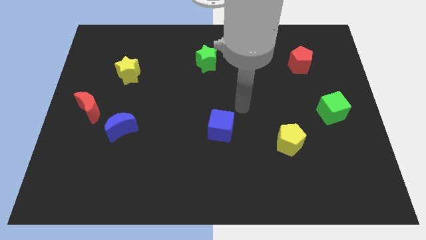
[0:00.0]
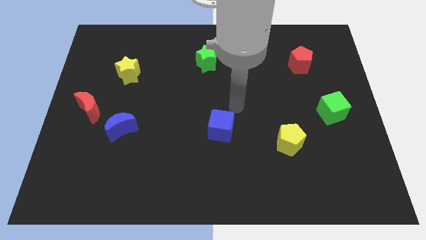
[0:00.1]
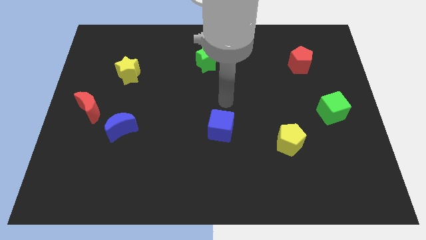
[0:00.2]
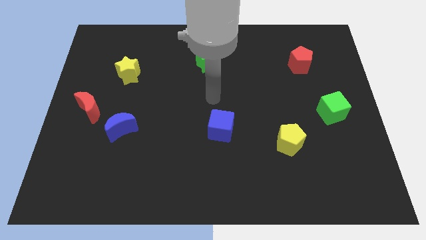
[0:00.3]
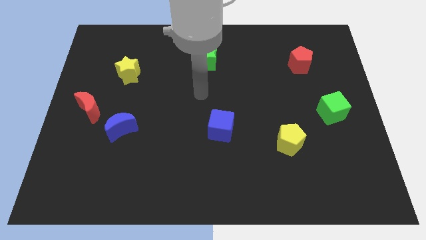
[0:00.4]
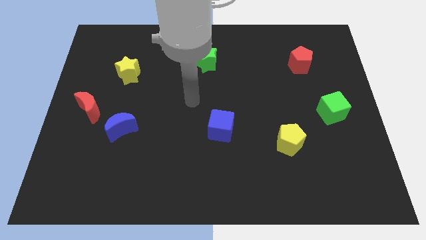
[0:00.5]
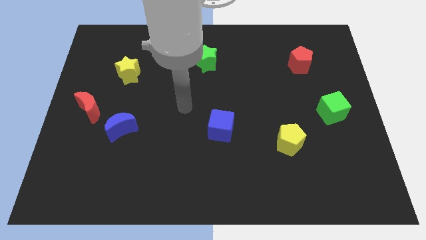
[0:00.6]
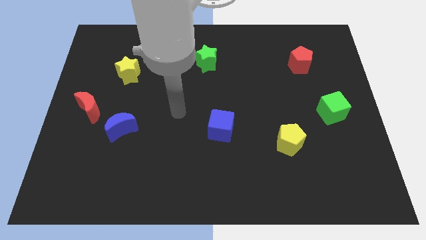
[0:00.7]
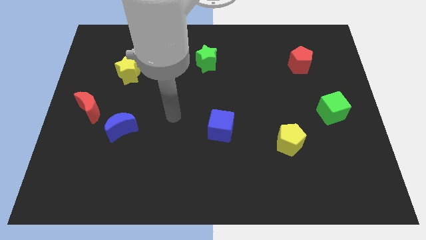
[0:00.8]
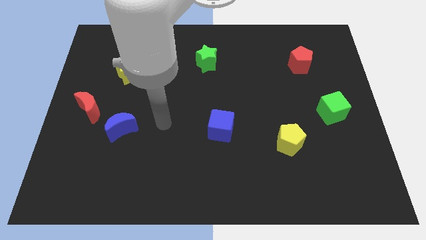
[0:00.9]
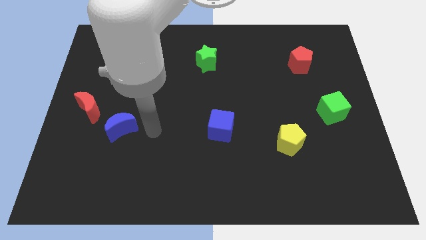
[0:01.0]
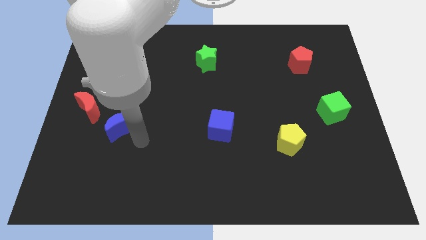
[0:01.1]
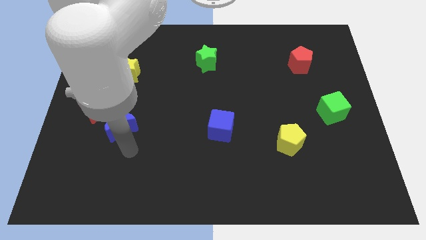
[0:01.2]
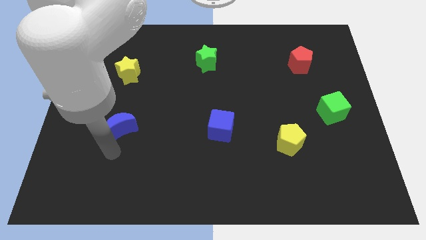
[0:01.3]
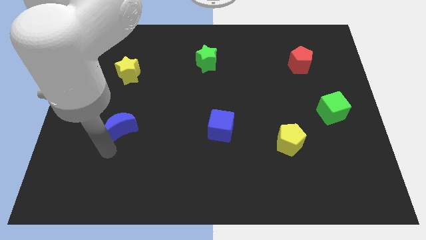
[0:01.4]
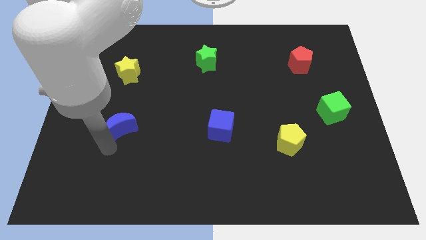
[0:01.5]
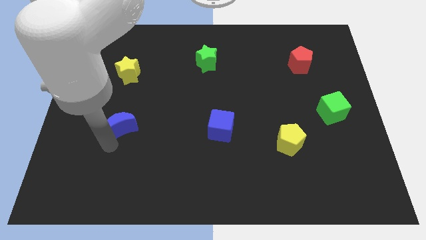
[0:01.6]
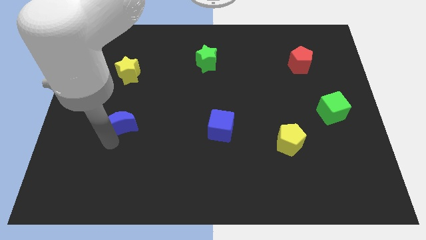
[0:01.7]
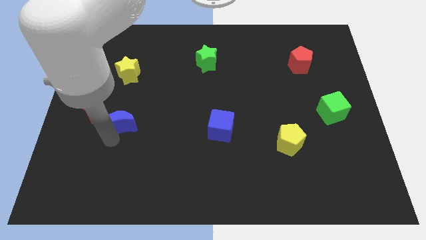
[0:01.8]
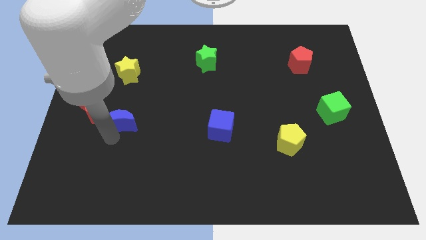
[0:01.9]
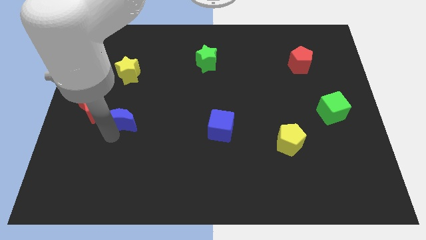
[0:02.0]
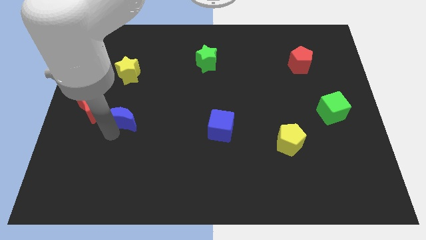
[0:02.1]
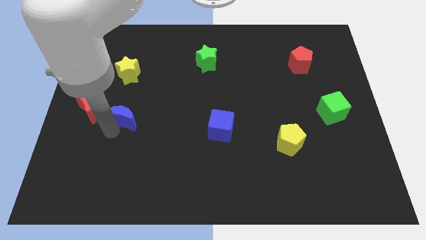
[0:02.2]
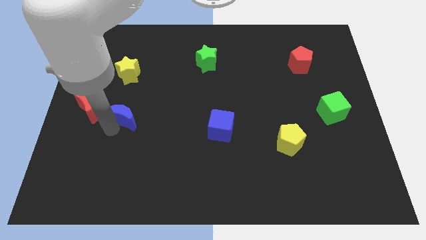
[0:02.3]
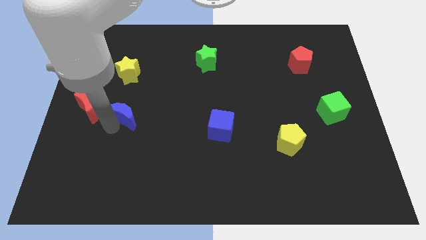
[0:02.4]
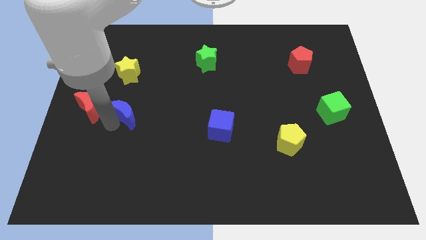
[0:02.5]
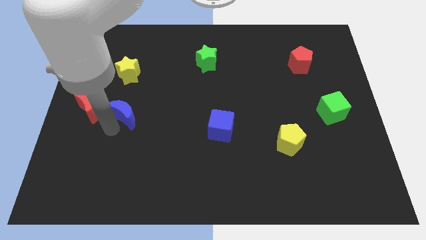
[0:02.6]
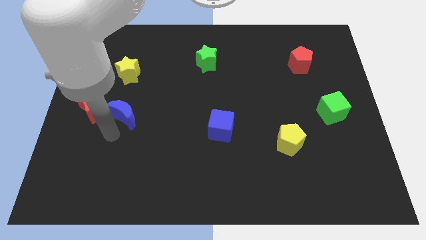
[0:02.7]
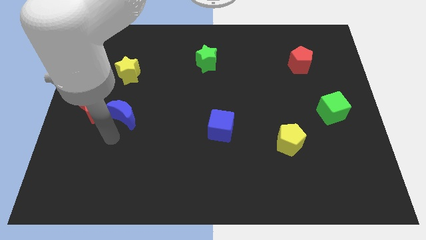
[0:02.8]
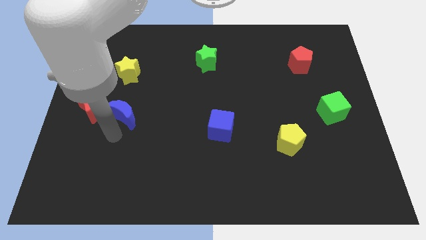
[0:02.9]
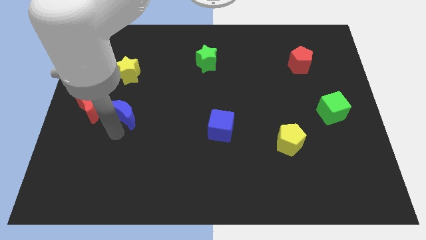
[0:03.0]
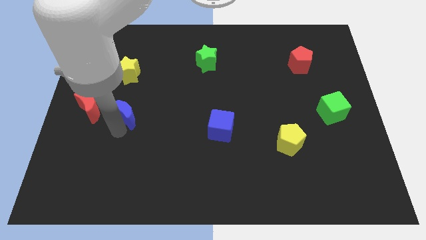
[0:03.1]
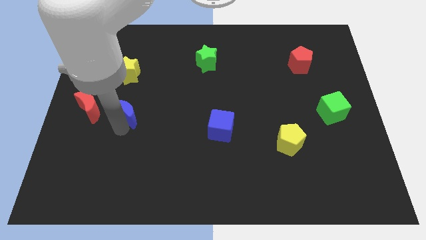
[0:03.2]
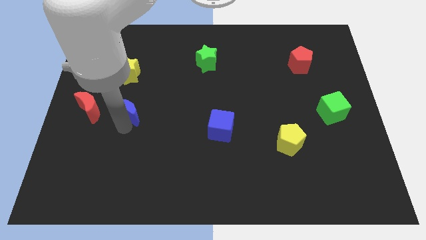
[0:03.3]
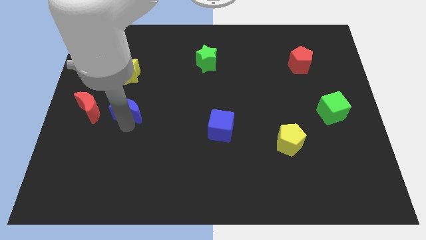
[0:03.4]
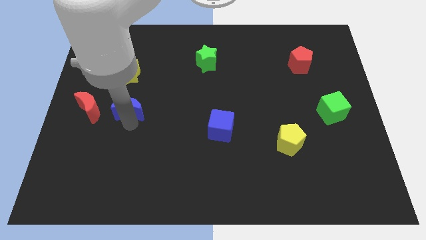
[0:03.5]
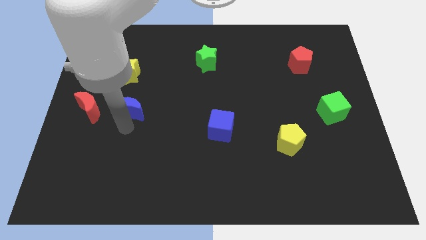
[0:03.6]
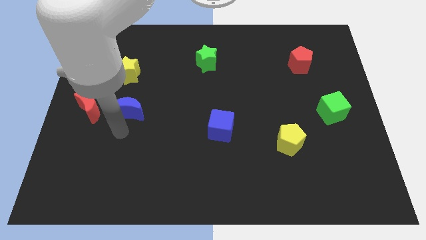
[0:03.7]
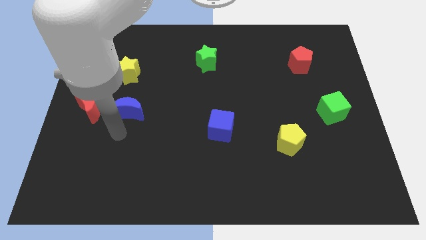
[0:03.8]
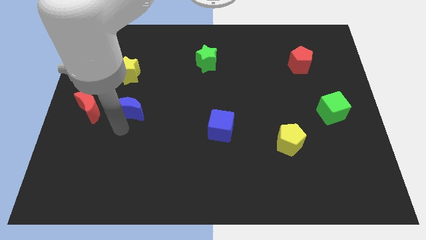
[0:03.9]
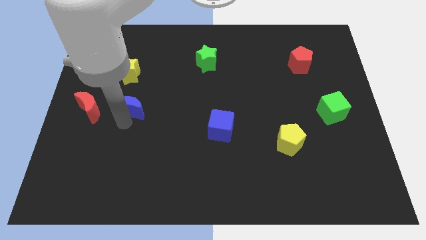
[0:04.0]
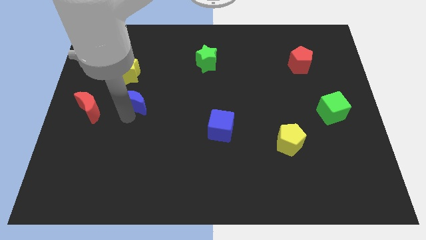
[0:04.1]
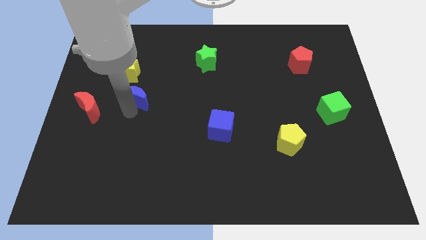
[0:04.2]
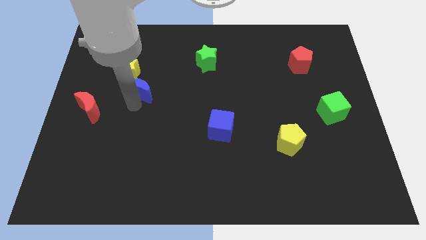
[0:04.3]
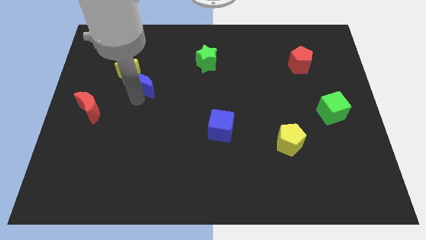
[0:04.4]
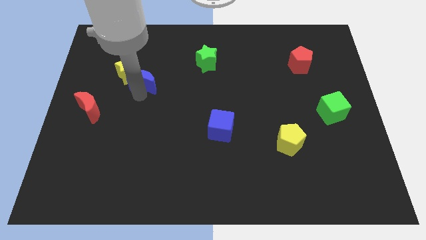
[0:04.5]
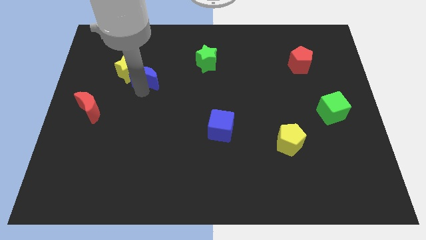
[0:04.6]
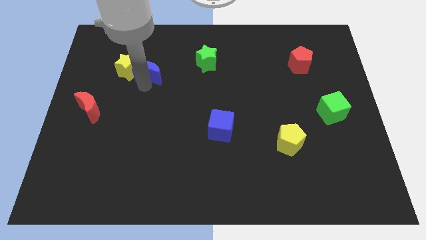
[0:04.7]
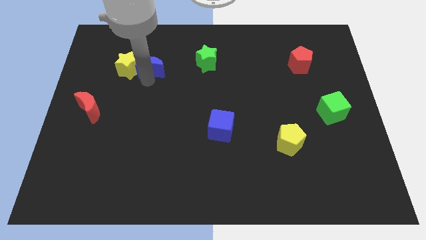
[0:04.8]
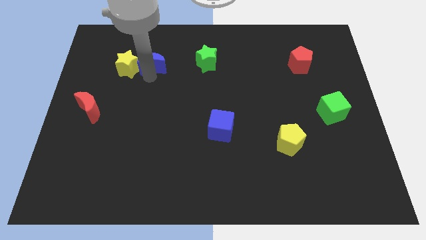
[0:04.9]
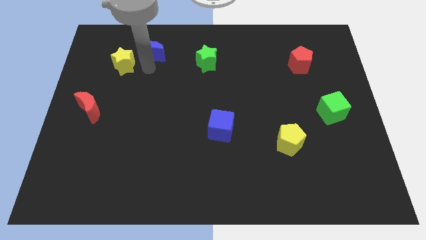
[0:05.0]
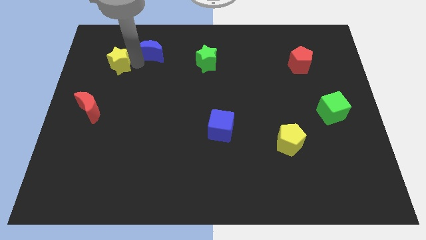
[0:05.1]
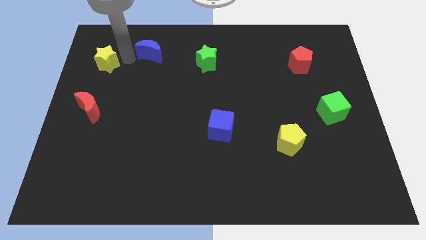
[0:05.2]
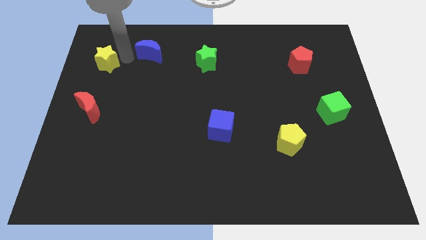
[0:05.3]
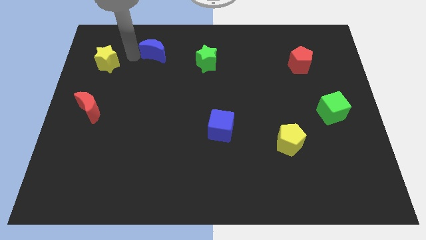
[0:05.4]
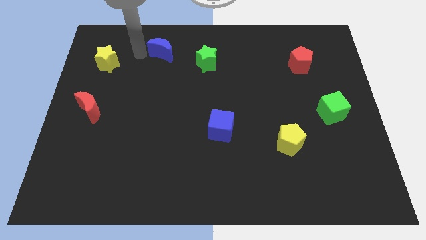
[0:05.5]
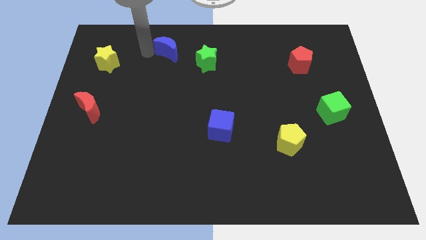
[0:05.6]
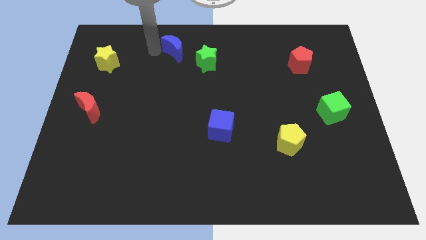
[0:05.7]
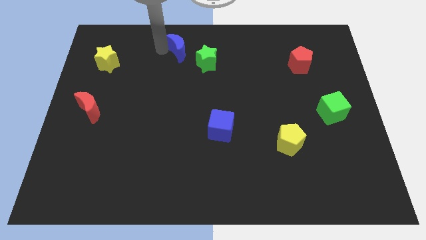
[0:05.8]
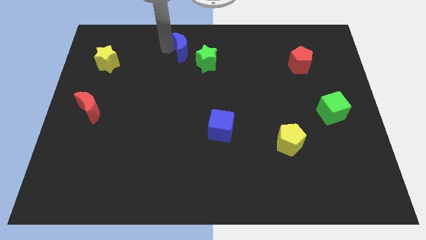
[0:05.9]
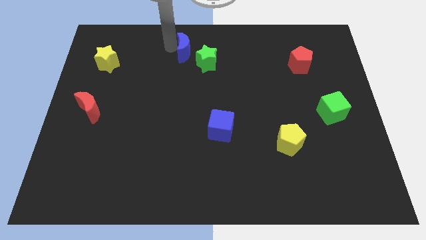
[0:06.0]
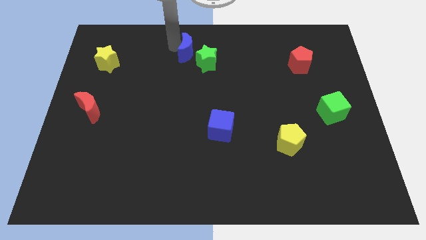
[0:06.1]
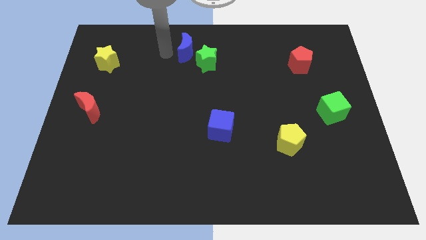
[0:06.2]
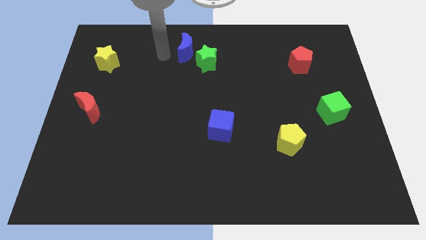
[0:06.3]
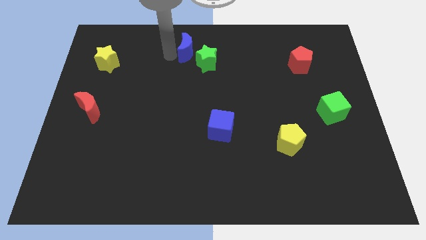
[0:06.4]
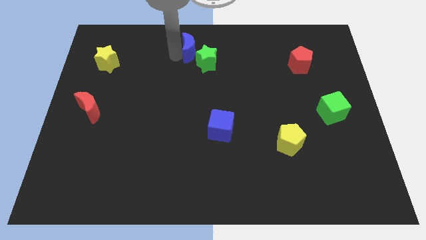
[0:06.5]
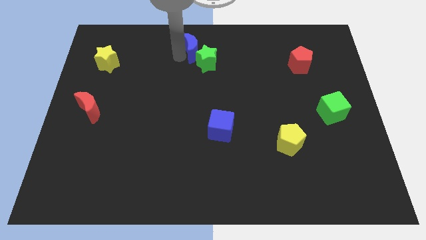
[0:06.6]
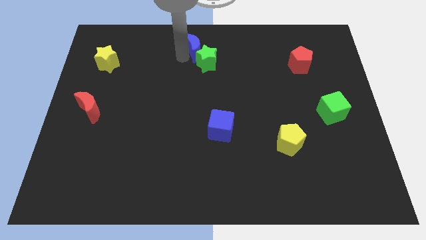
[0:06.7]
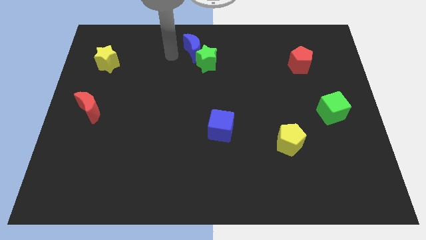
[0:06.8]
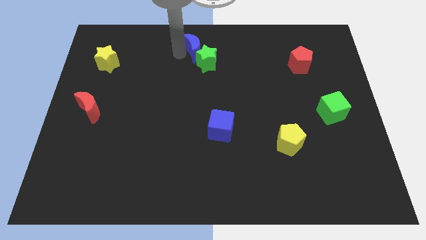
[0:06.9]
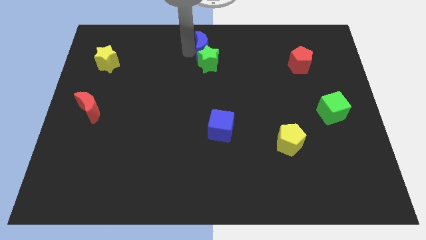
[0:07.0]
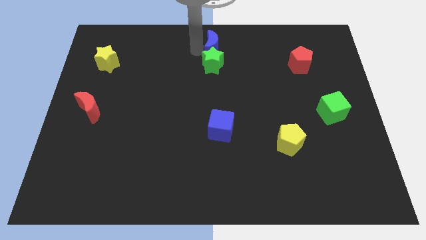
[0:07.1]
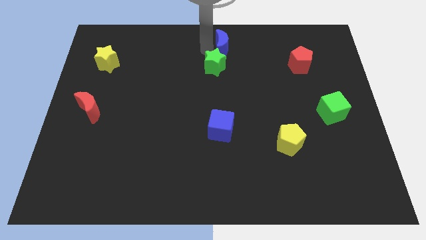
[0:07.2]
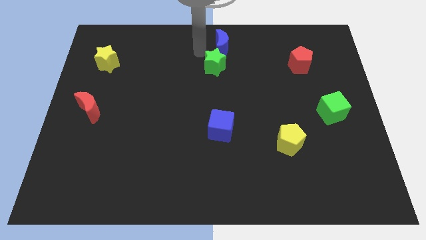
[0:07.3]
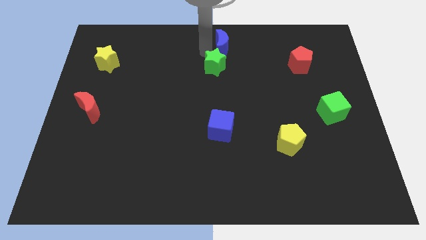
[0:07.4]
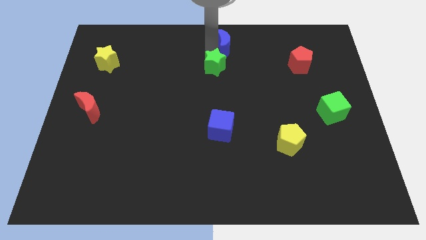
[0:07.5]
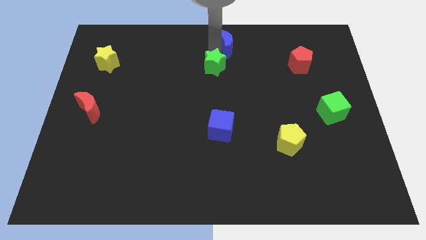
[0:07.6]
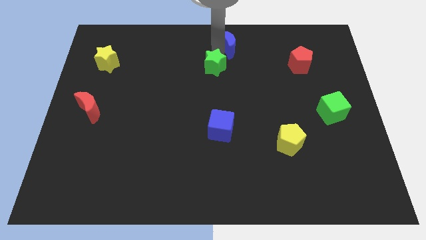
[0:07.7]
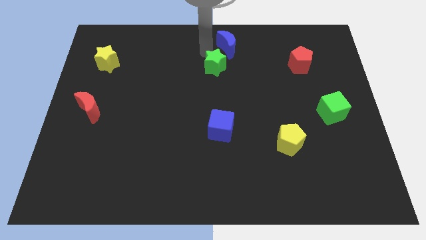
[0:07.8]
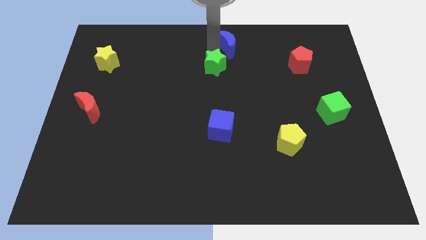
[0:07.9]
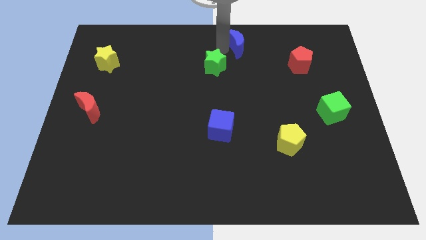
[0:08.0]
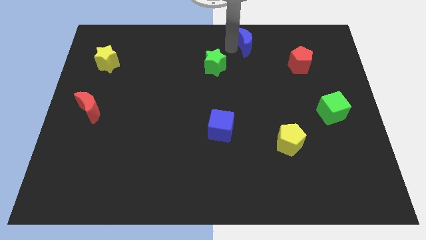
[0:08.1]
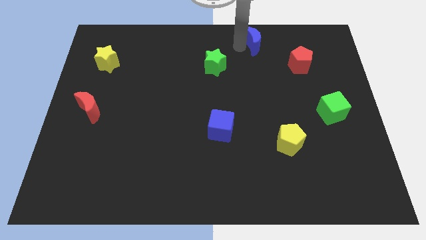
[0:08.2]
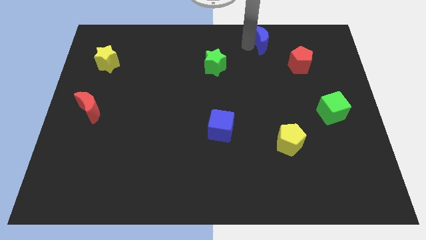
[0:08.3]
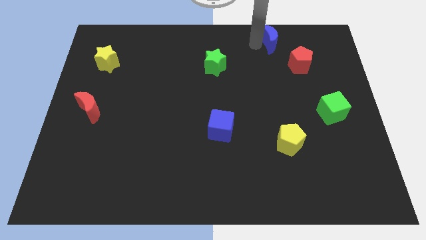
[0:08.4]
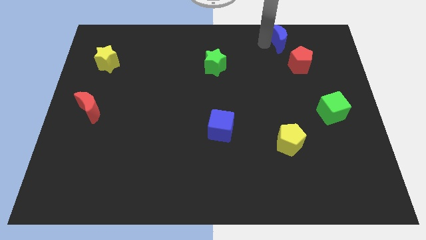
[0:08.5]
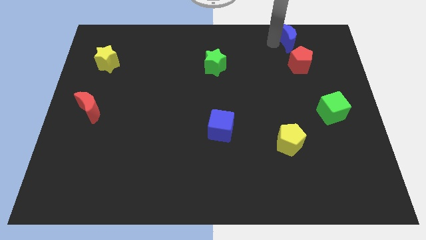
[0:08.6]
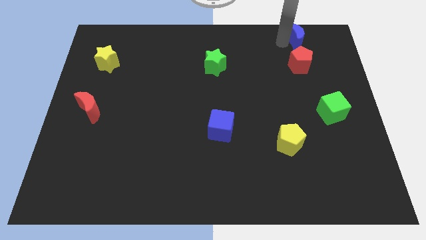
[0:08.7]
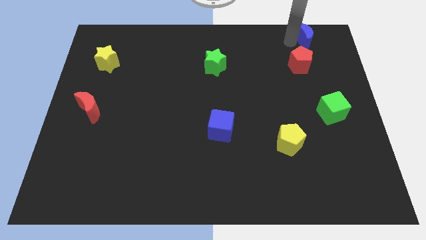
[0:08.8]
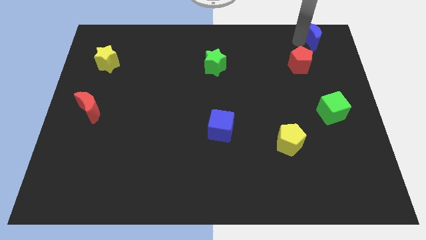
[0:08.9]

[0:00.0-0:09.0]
push the blue moon to the top right
